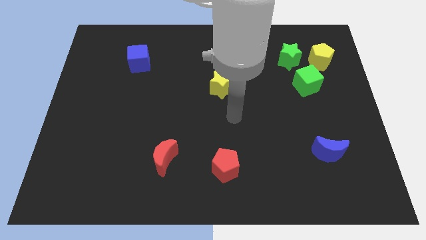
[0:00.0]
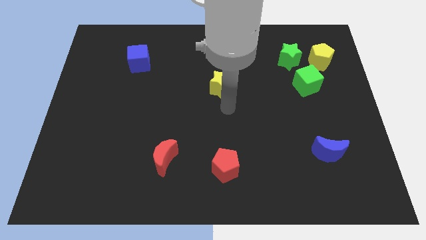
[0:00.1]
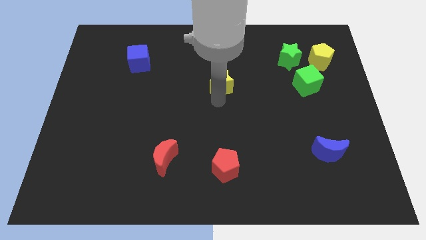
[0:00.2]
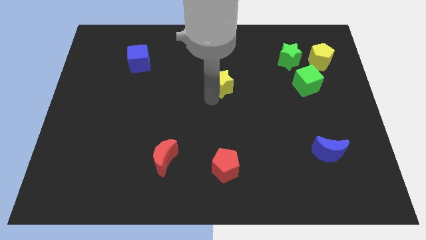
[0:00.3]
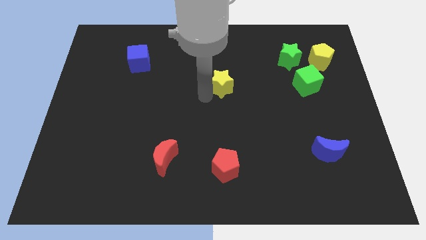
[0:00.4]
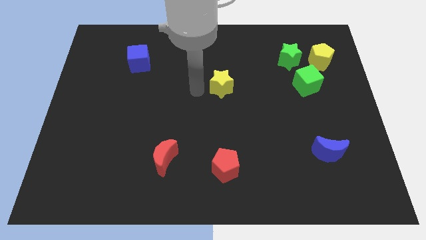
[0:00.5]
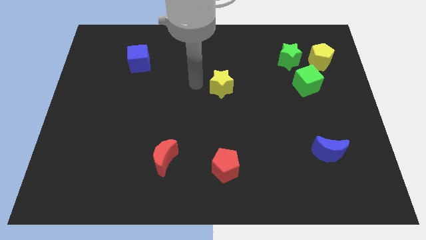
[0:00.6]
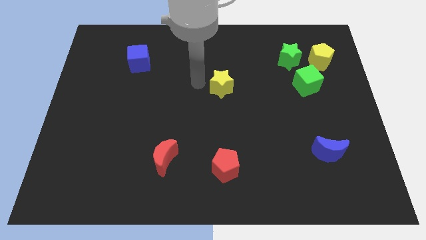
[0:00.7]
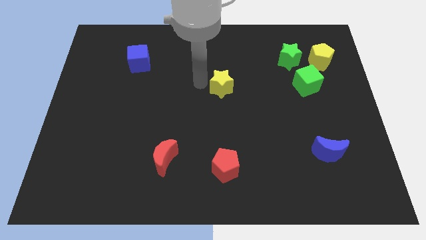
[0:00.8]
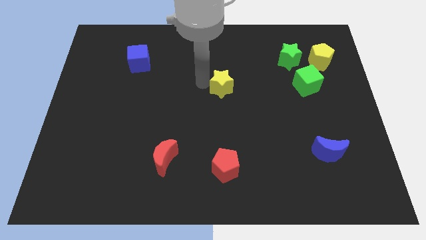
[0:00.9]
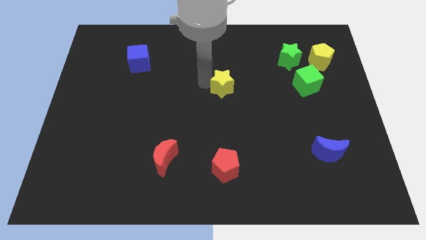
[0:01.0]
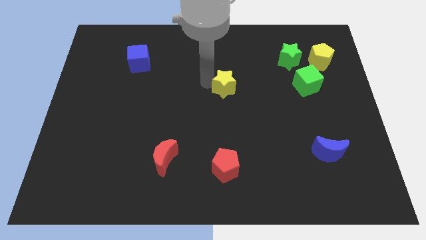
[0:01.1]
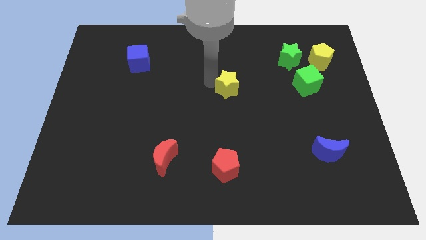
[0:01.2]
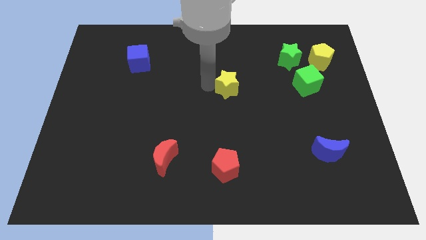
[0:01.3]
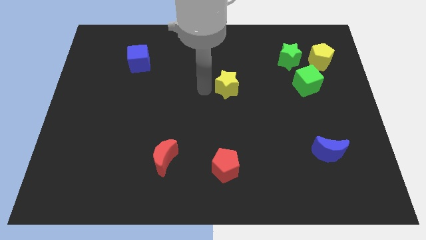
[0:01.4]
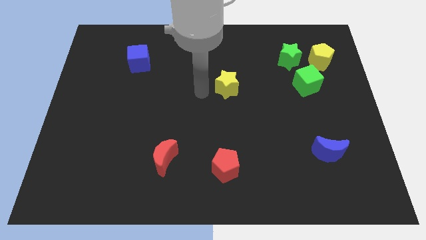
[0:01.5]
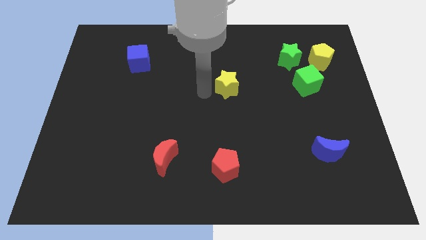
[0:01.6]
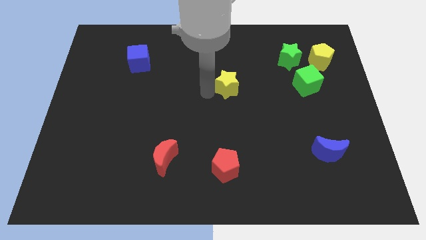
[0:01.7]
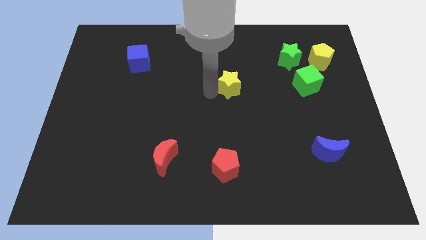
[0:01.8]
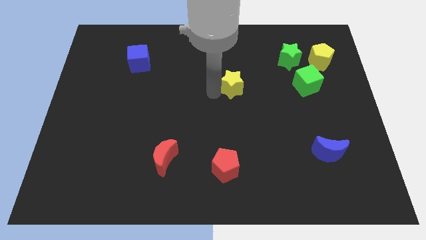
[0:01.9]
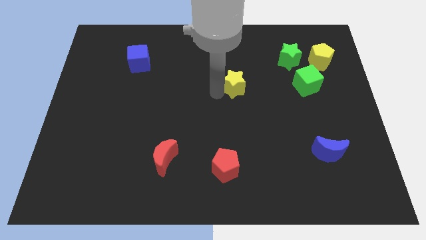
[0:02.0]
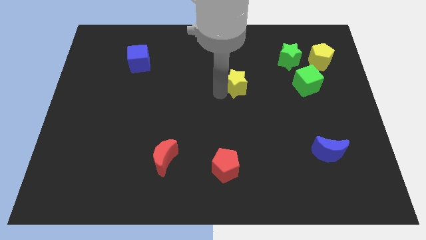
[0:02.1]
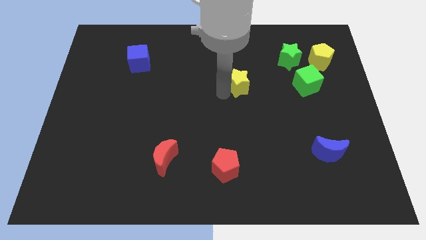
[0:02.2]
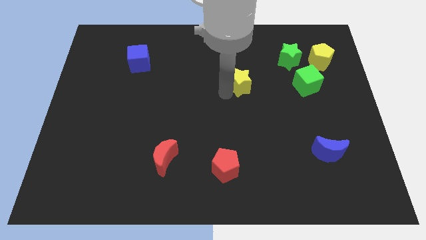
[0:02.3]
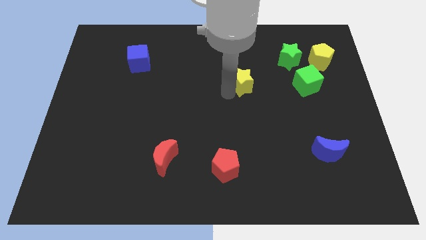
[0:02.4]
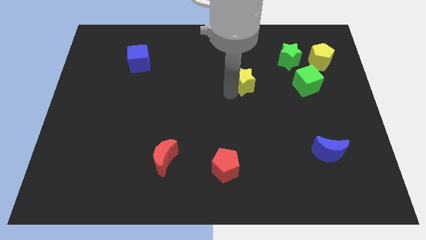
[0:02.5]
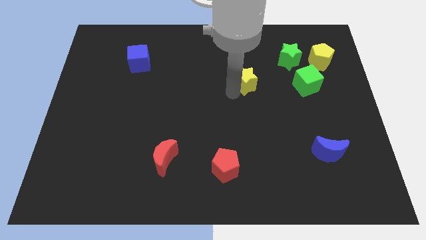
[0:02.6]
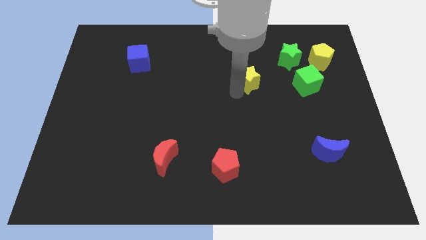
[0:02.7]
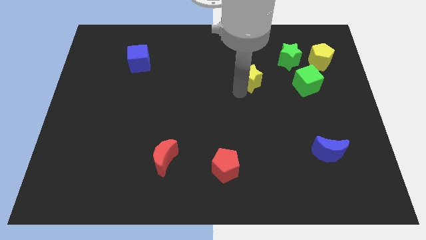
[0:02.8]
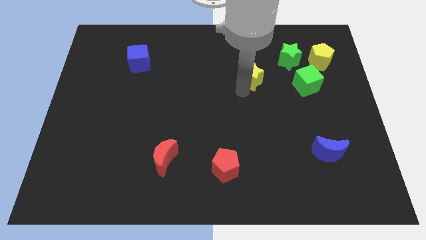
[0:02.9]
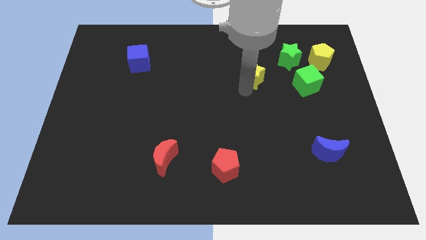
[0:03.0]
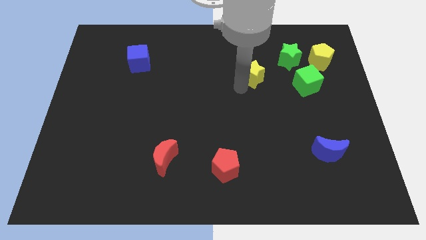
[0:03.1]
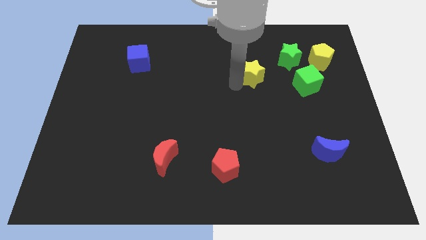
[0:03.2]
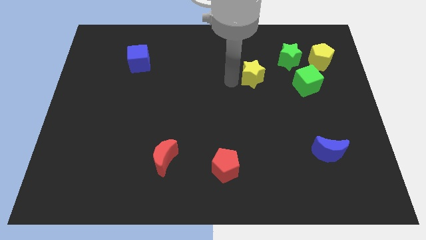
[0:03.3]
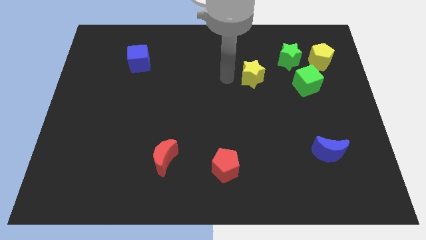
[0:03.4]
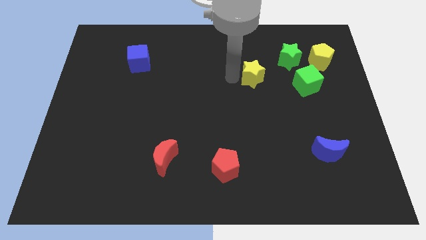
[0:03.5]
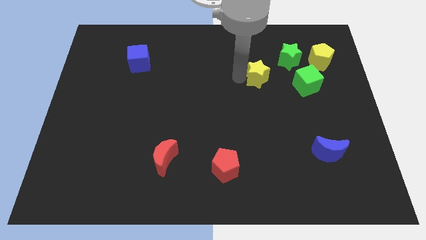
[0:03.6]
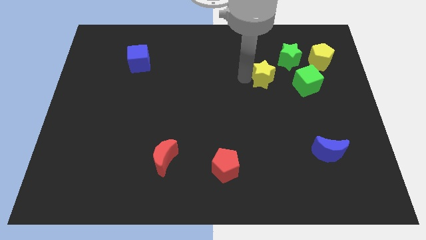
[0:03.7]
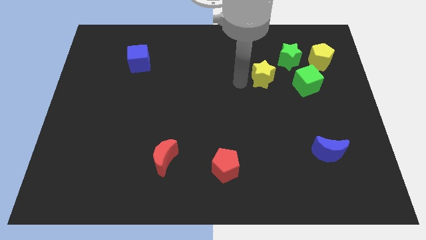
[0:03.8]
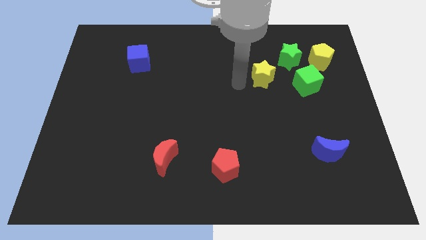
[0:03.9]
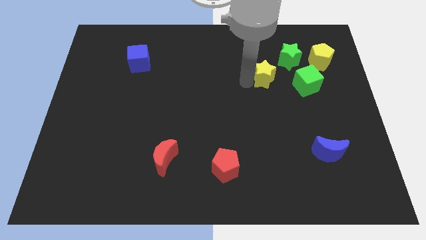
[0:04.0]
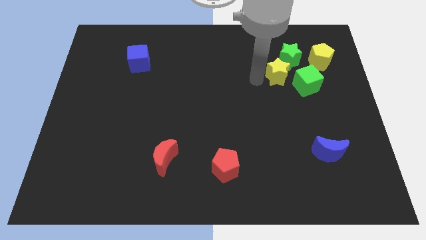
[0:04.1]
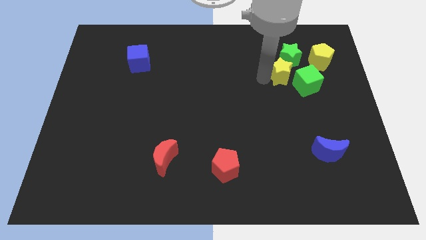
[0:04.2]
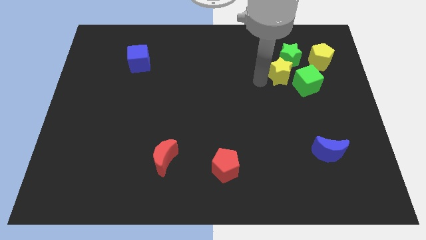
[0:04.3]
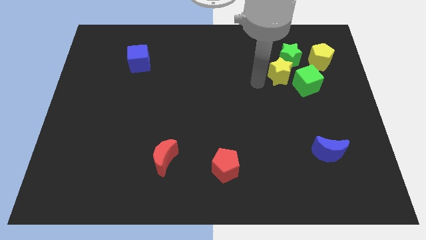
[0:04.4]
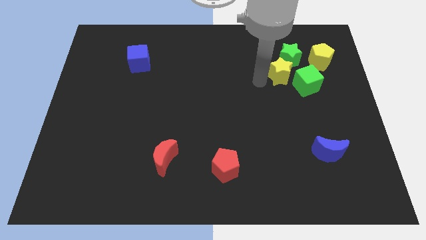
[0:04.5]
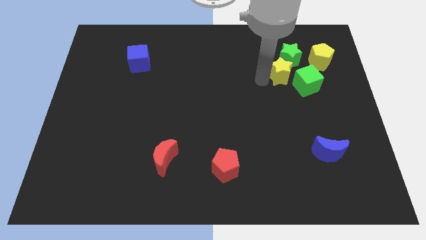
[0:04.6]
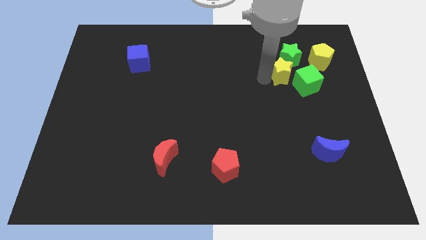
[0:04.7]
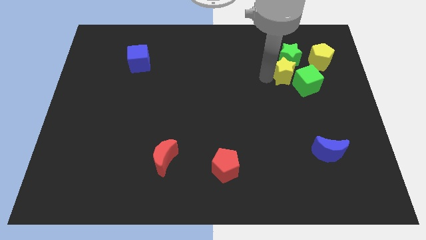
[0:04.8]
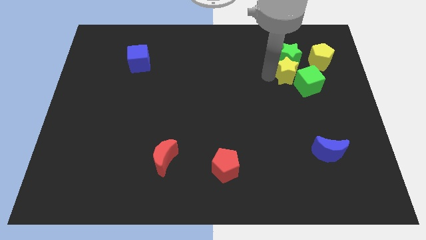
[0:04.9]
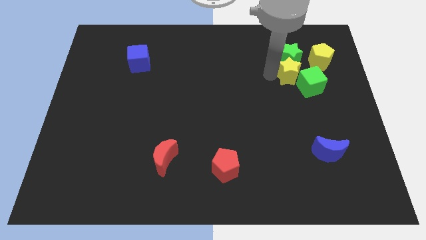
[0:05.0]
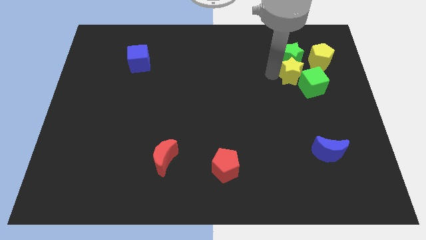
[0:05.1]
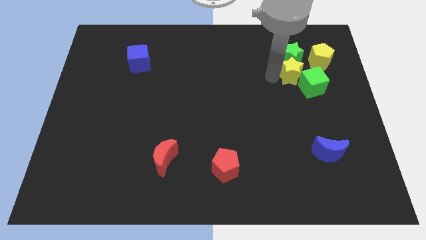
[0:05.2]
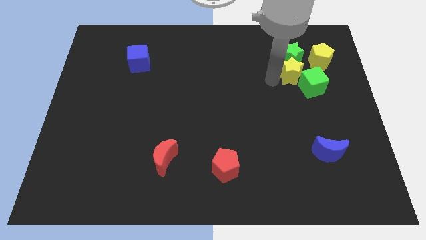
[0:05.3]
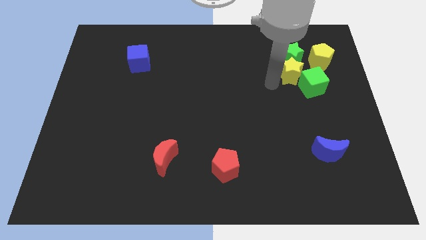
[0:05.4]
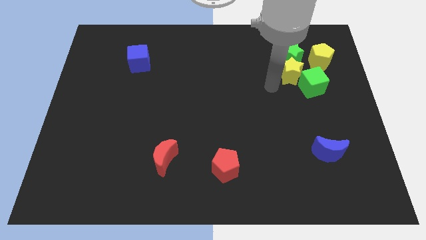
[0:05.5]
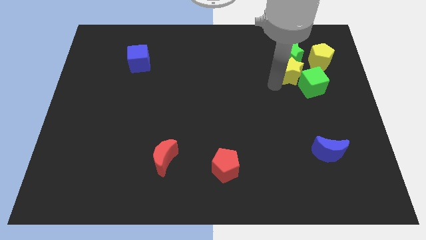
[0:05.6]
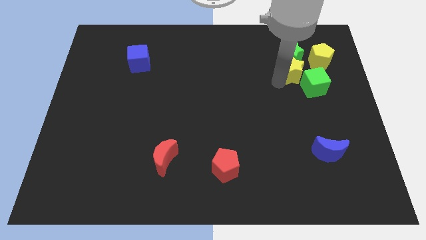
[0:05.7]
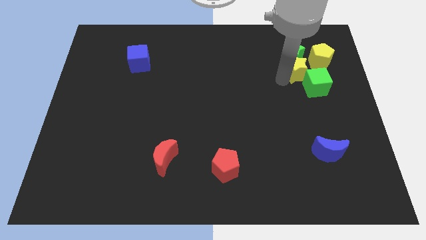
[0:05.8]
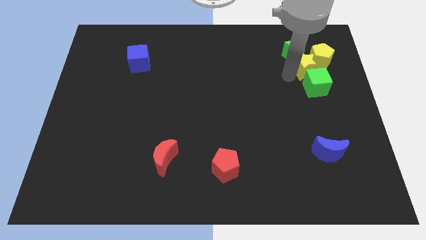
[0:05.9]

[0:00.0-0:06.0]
move the yellow star next to the yellow pentagon
